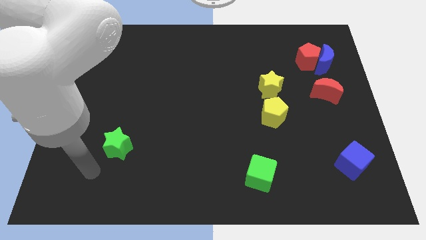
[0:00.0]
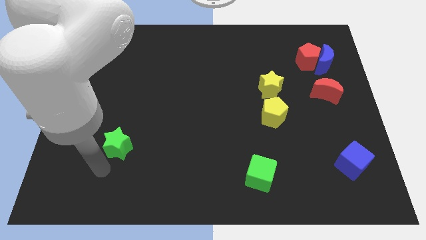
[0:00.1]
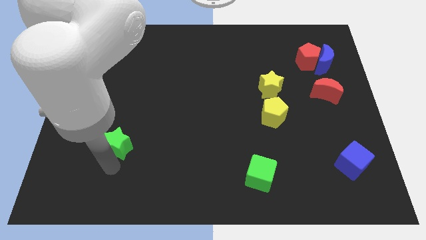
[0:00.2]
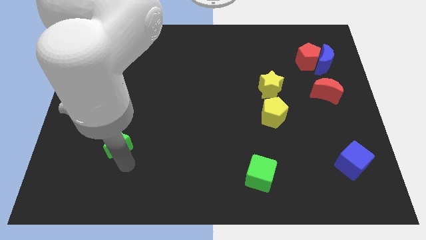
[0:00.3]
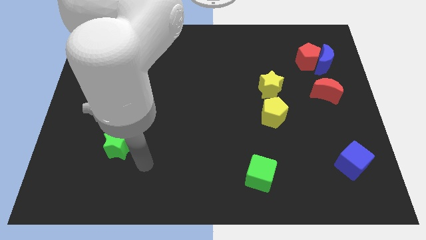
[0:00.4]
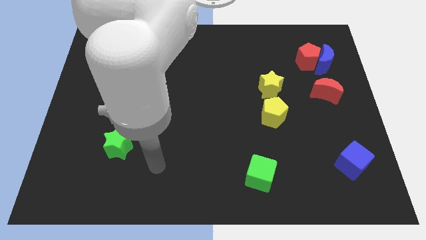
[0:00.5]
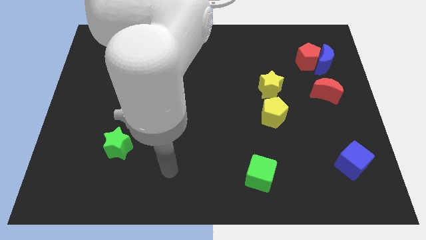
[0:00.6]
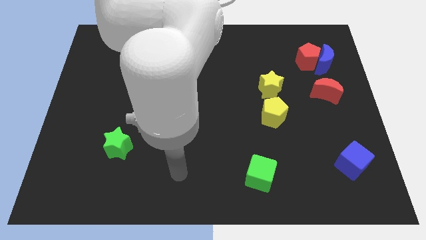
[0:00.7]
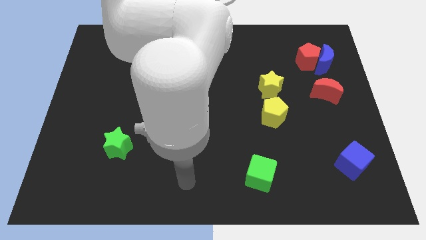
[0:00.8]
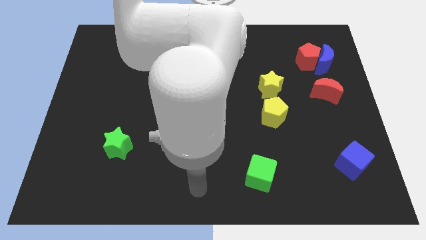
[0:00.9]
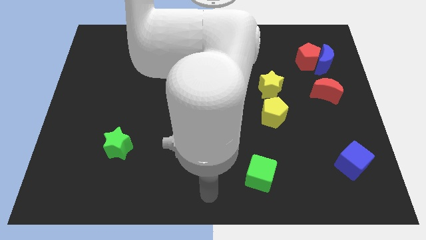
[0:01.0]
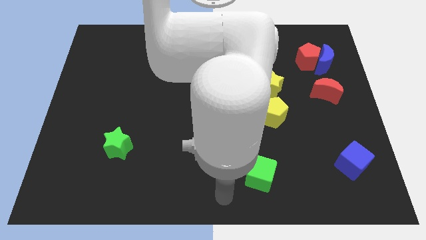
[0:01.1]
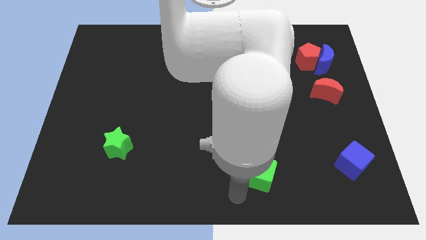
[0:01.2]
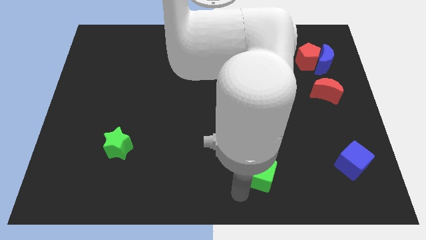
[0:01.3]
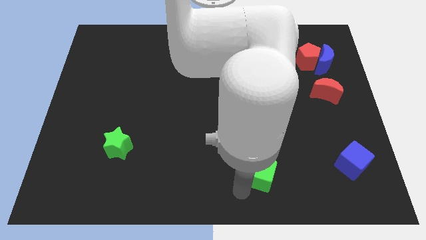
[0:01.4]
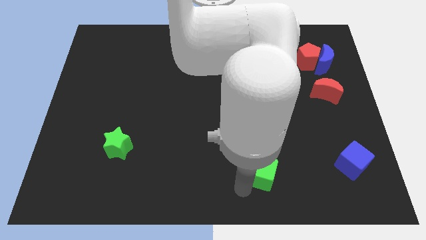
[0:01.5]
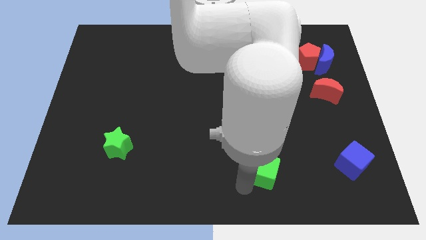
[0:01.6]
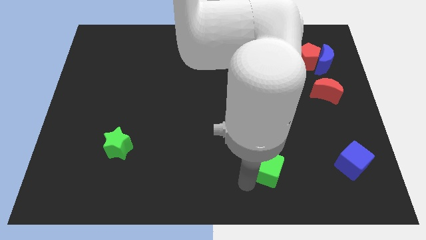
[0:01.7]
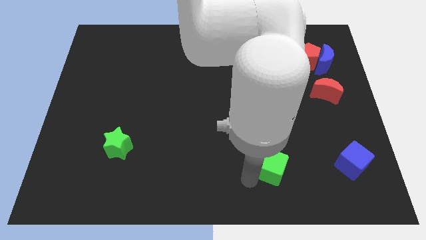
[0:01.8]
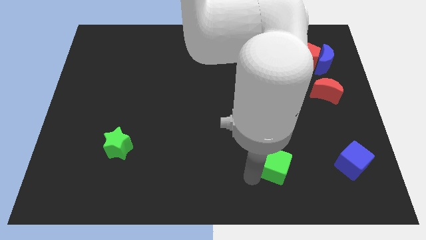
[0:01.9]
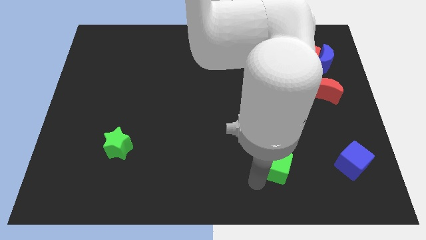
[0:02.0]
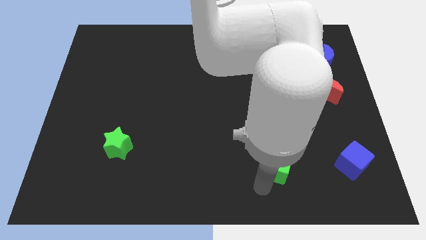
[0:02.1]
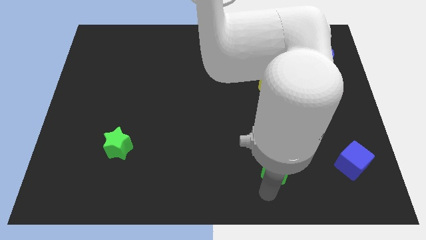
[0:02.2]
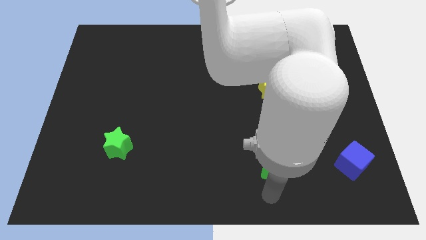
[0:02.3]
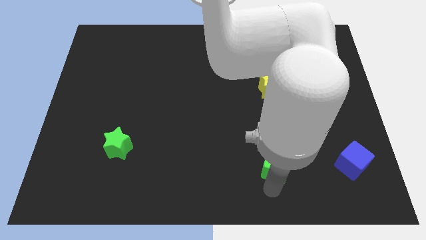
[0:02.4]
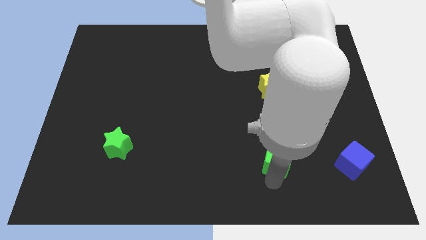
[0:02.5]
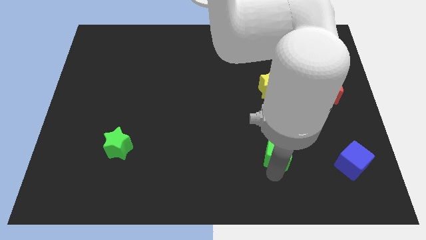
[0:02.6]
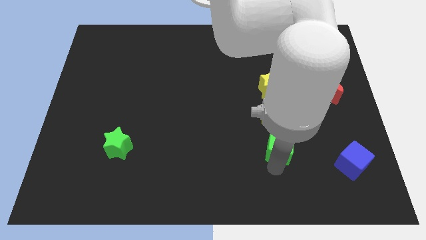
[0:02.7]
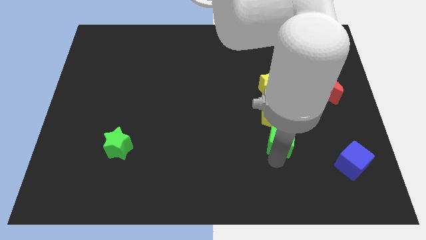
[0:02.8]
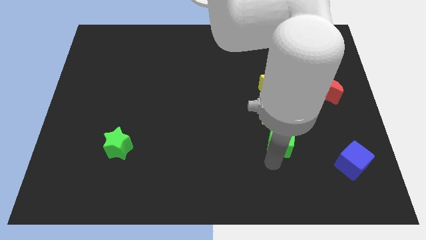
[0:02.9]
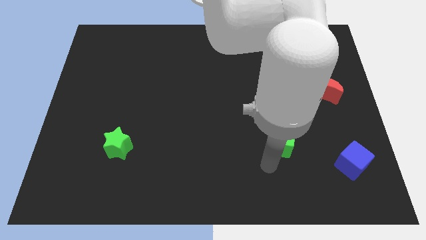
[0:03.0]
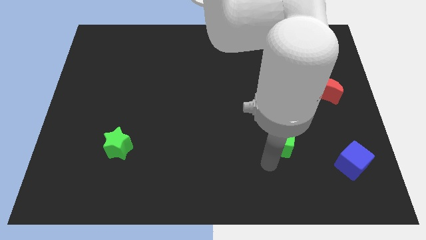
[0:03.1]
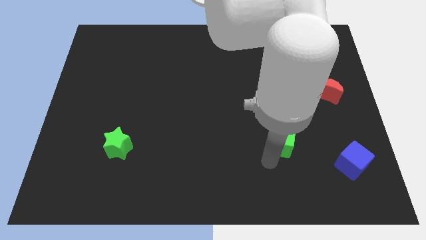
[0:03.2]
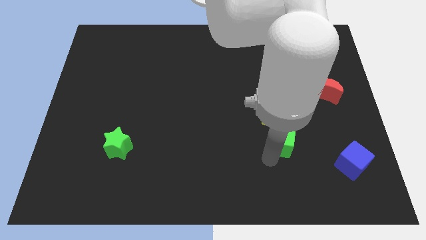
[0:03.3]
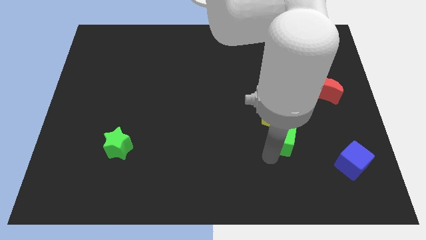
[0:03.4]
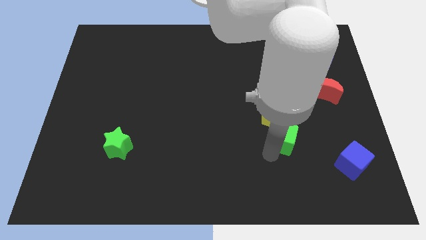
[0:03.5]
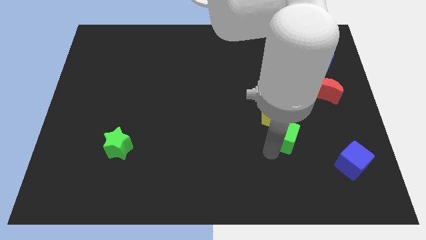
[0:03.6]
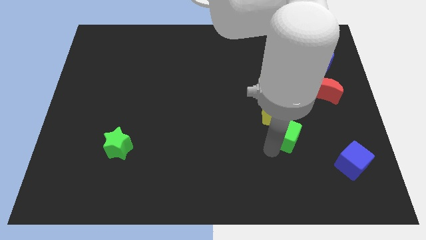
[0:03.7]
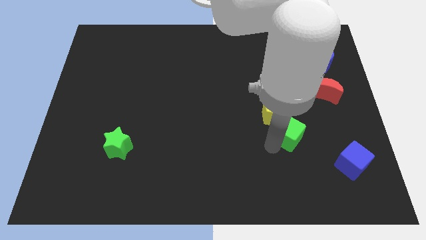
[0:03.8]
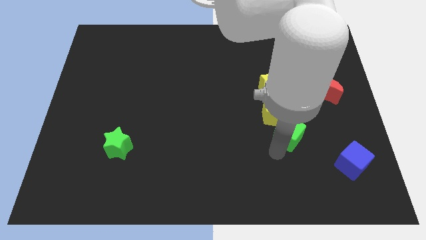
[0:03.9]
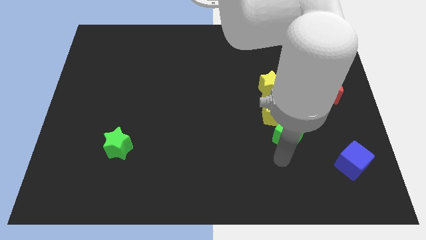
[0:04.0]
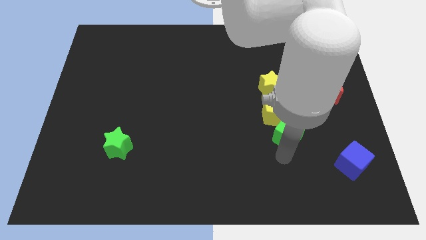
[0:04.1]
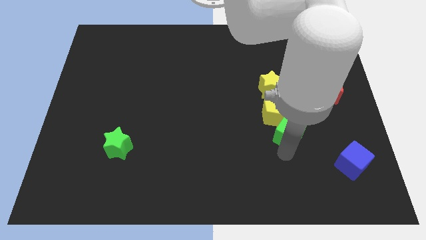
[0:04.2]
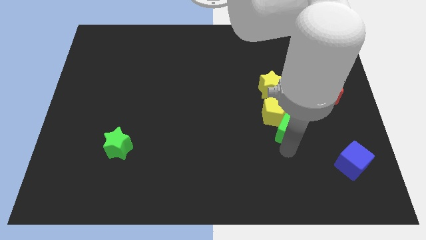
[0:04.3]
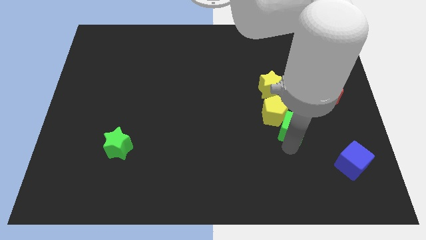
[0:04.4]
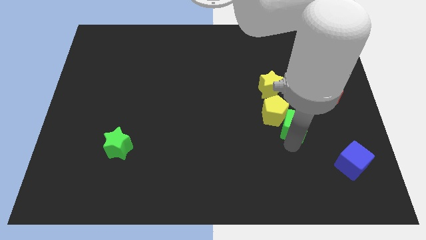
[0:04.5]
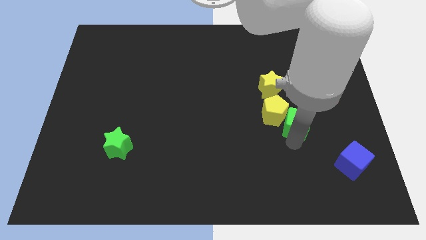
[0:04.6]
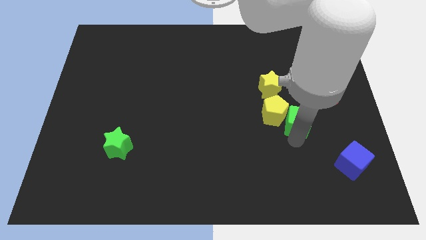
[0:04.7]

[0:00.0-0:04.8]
put the green cube diagonally down and to the right of the yellow star

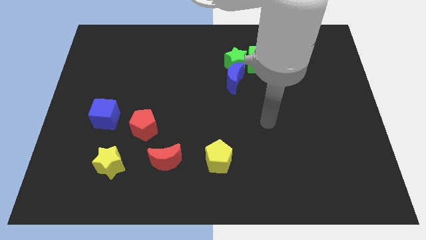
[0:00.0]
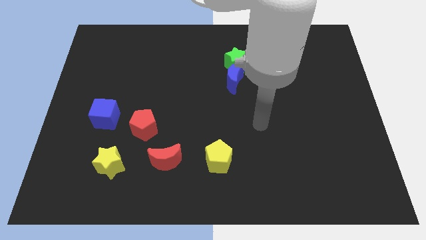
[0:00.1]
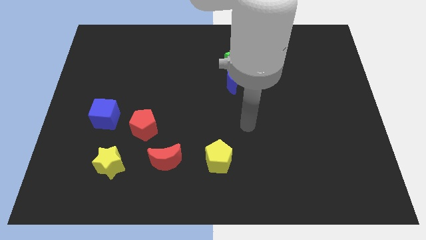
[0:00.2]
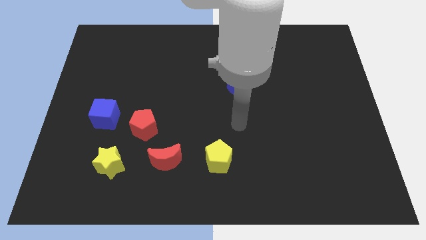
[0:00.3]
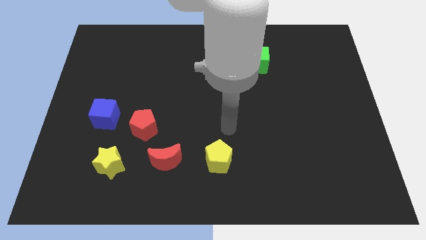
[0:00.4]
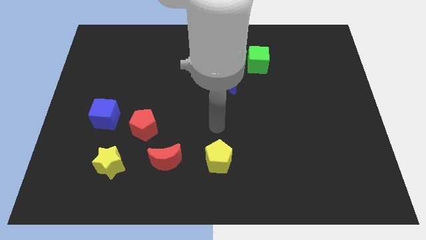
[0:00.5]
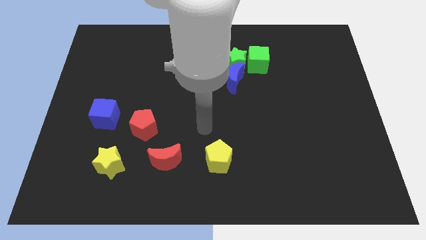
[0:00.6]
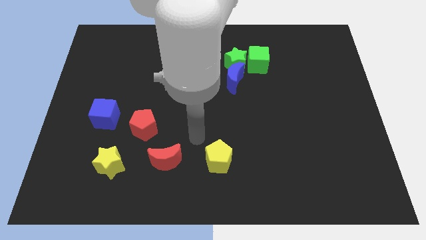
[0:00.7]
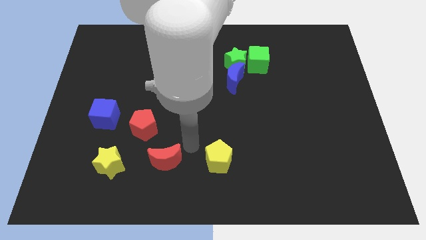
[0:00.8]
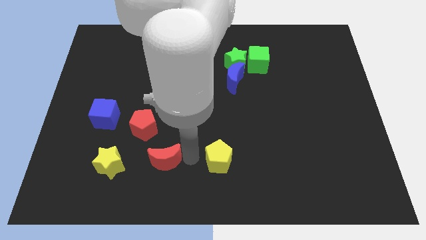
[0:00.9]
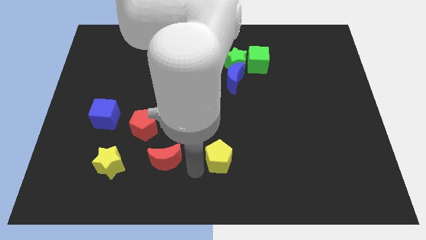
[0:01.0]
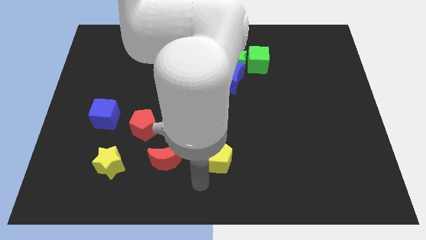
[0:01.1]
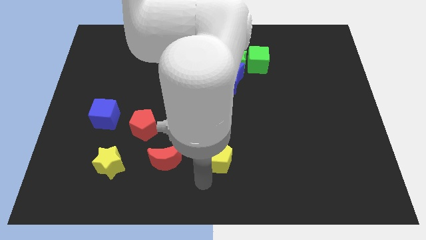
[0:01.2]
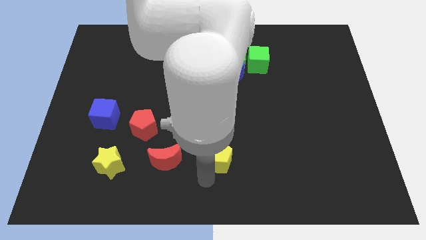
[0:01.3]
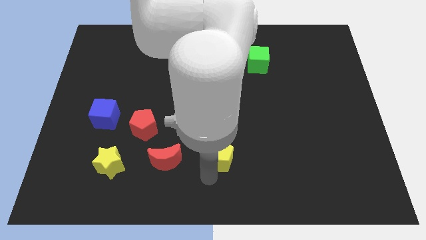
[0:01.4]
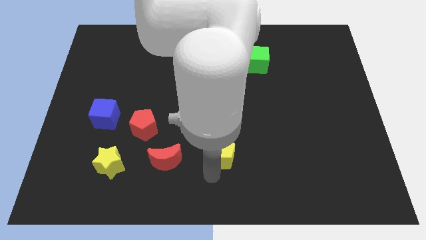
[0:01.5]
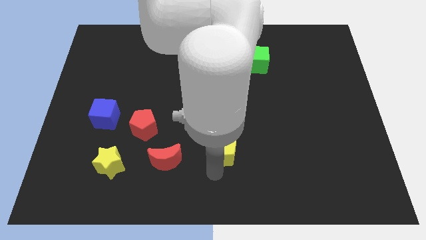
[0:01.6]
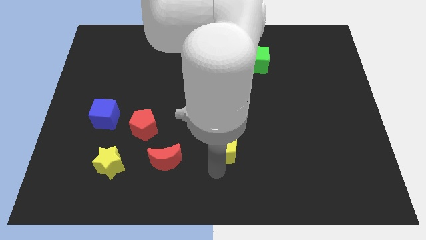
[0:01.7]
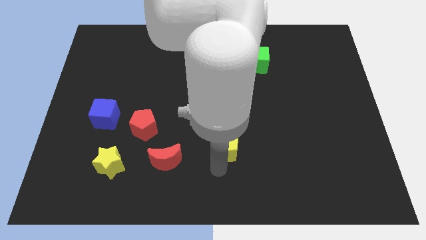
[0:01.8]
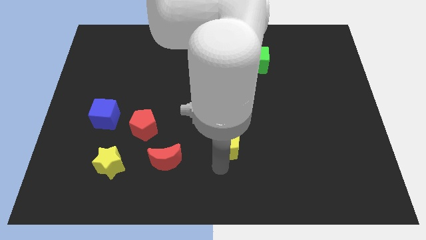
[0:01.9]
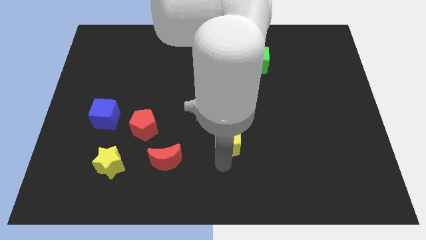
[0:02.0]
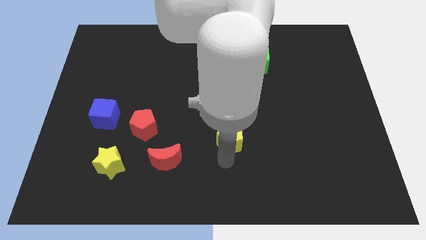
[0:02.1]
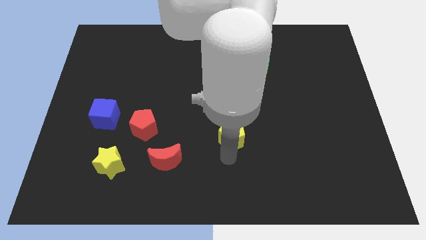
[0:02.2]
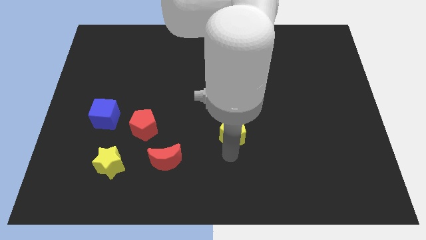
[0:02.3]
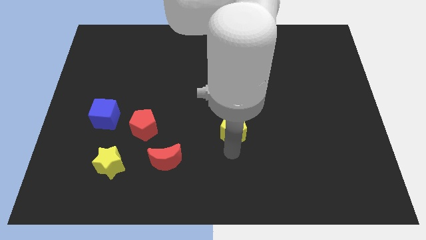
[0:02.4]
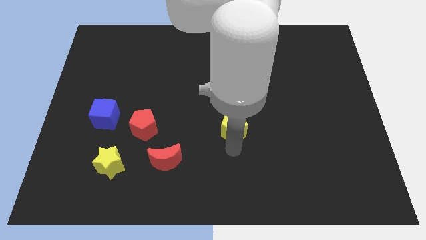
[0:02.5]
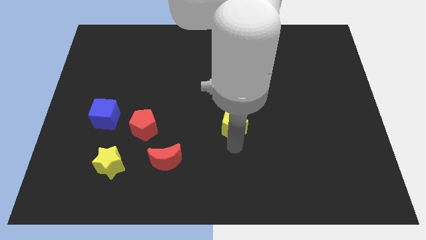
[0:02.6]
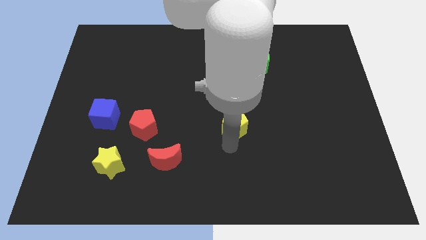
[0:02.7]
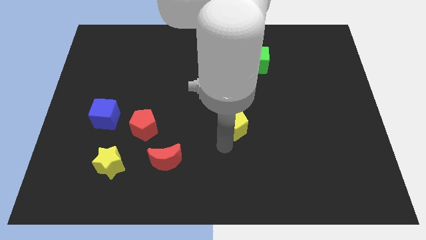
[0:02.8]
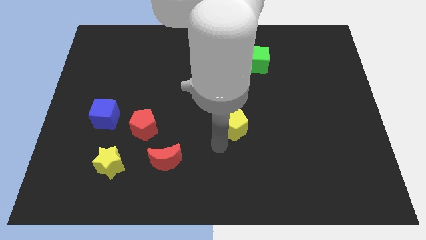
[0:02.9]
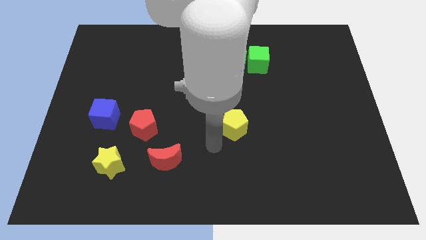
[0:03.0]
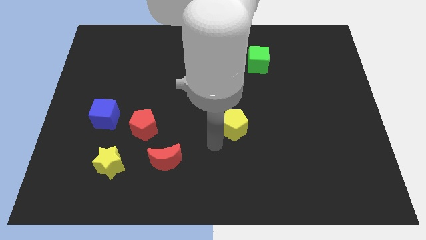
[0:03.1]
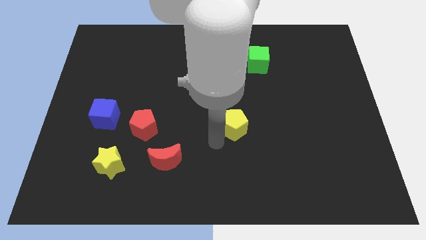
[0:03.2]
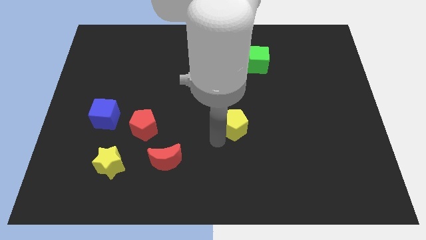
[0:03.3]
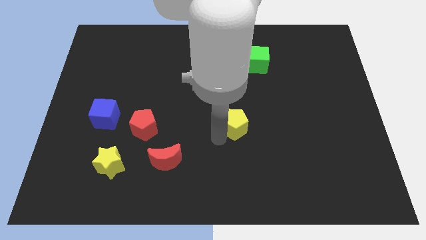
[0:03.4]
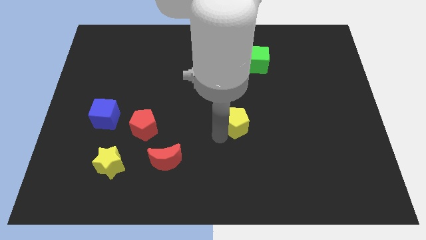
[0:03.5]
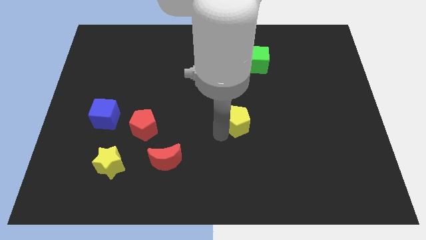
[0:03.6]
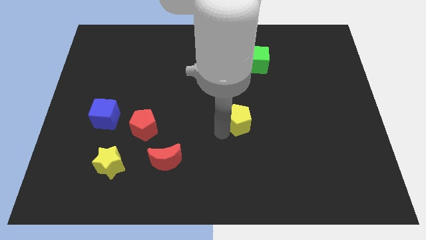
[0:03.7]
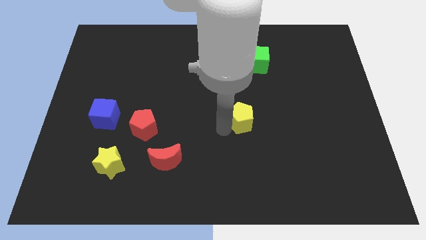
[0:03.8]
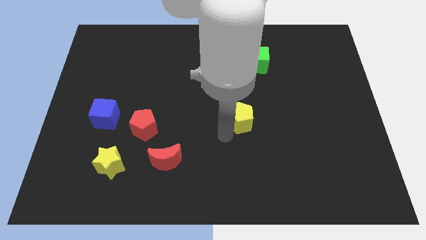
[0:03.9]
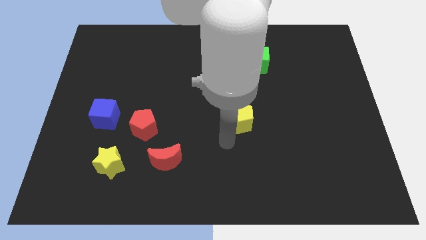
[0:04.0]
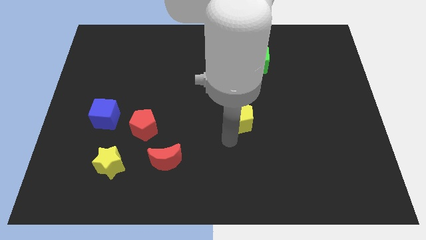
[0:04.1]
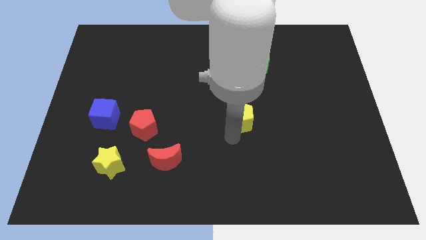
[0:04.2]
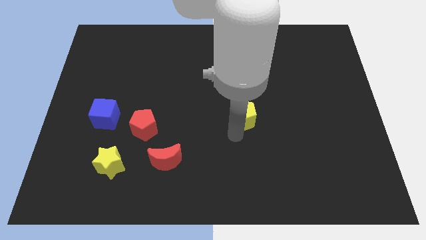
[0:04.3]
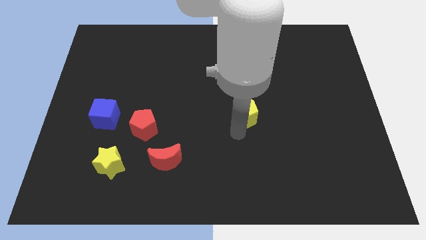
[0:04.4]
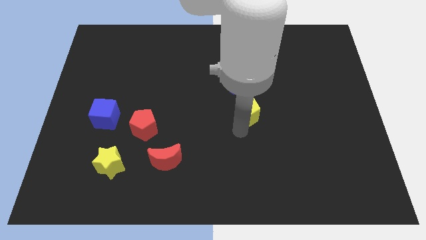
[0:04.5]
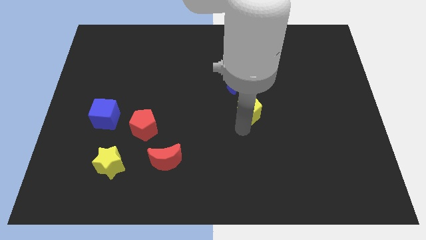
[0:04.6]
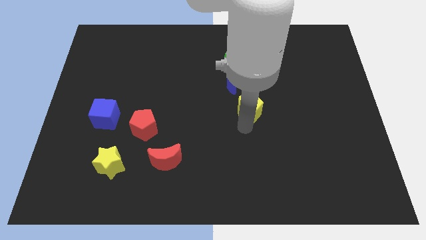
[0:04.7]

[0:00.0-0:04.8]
push the yellow pentagon to the bottom right side of the blue moon
